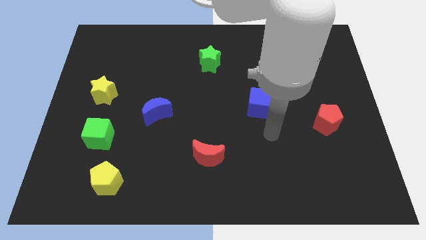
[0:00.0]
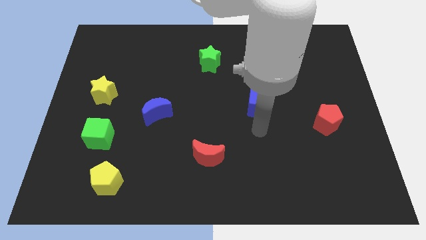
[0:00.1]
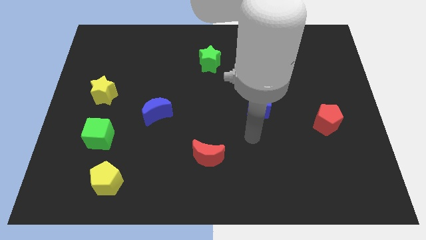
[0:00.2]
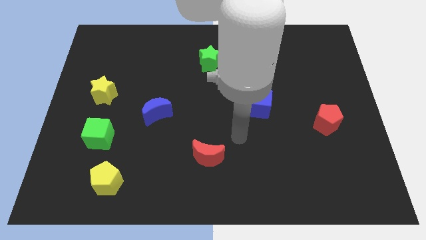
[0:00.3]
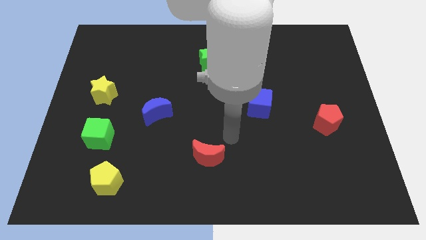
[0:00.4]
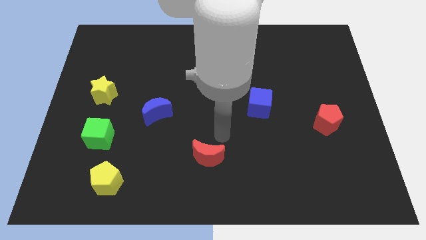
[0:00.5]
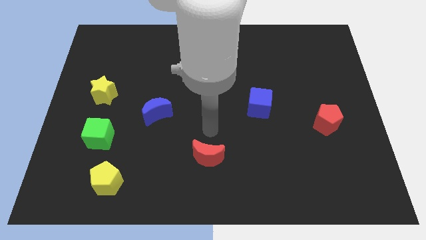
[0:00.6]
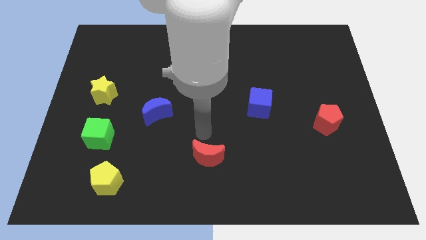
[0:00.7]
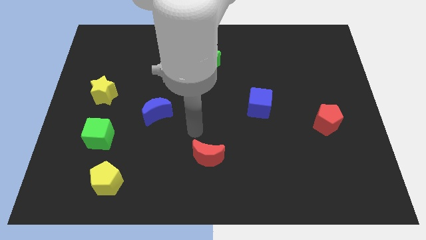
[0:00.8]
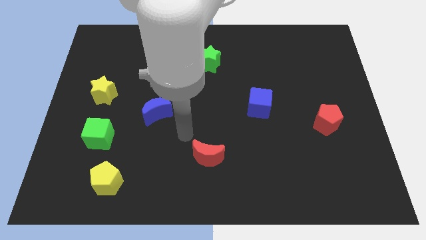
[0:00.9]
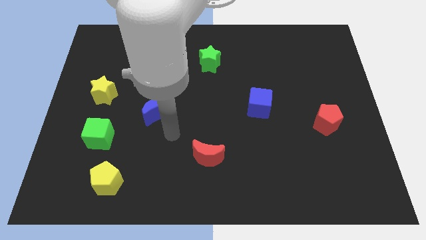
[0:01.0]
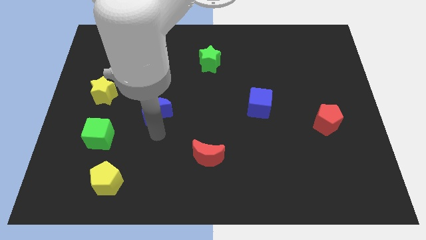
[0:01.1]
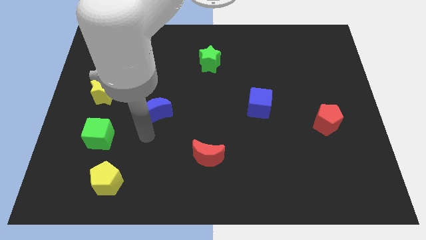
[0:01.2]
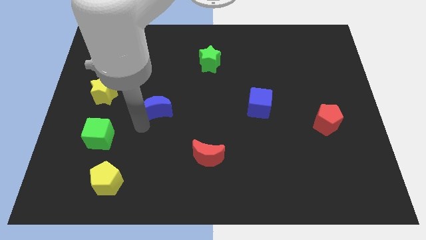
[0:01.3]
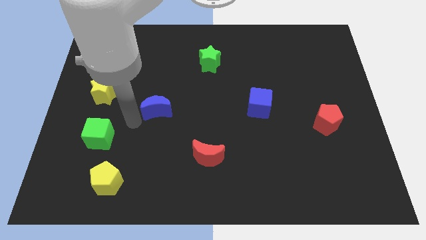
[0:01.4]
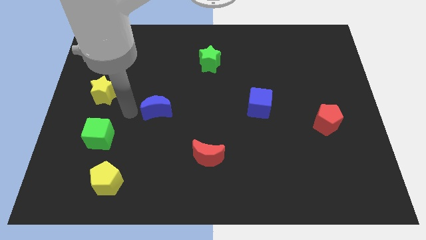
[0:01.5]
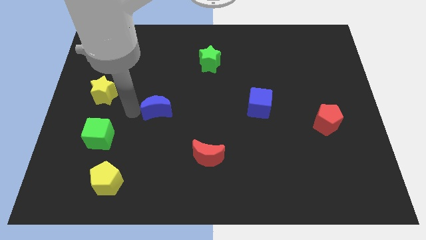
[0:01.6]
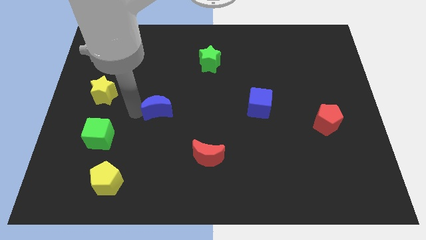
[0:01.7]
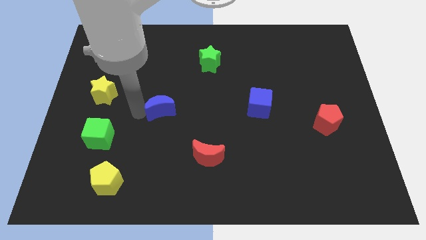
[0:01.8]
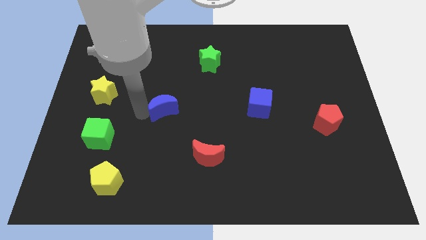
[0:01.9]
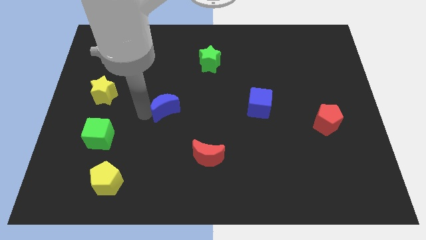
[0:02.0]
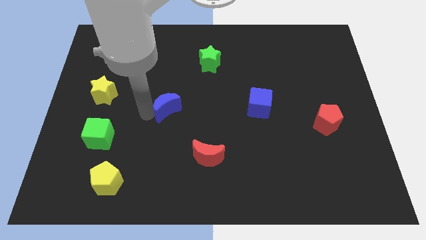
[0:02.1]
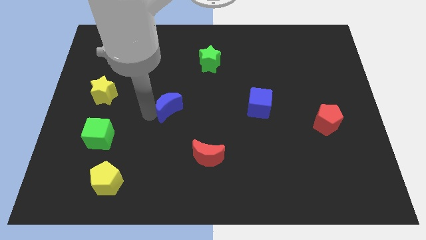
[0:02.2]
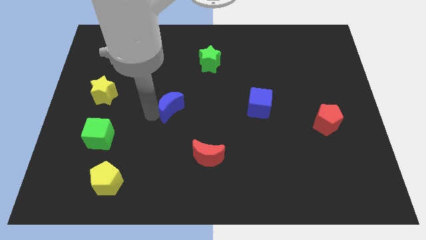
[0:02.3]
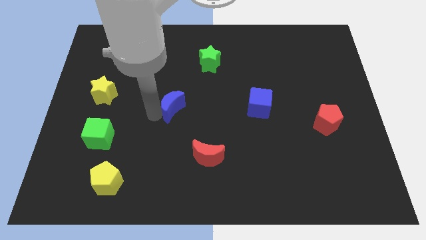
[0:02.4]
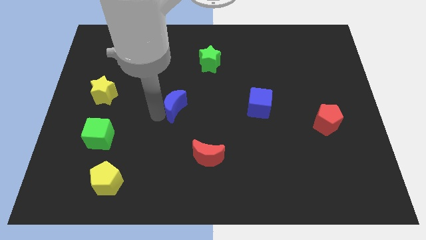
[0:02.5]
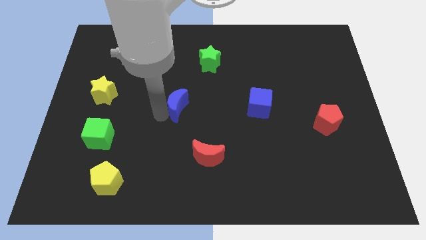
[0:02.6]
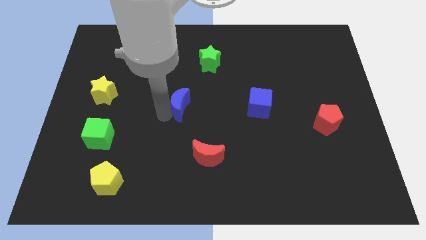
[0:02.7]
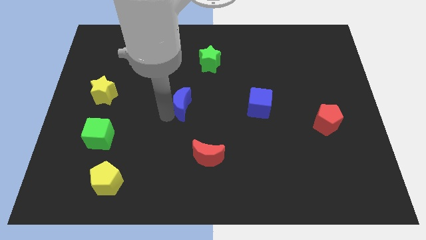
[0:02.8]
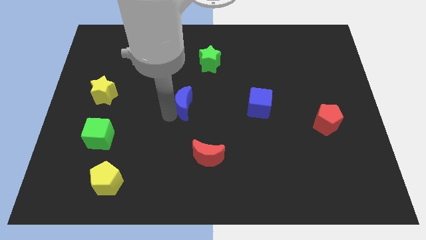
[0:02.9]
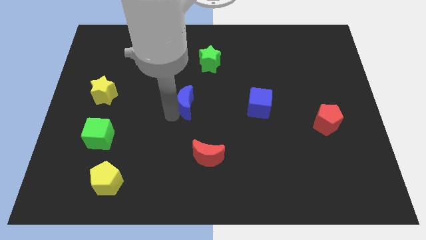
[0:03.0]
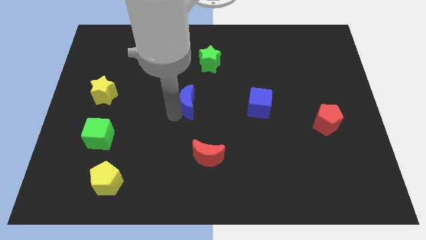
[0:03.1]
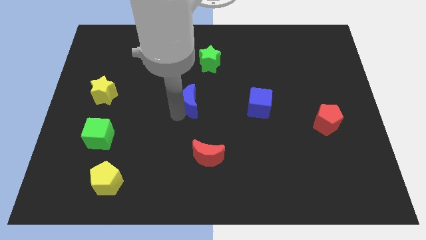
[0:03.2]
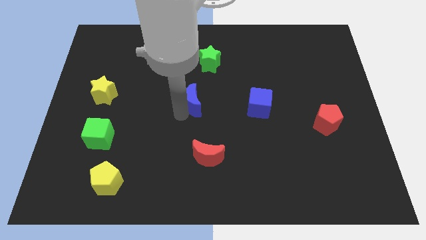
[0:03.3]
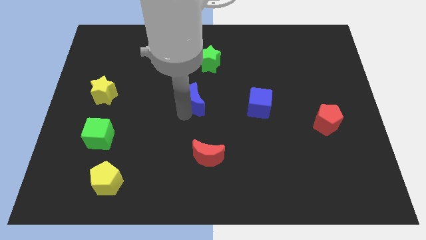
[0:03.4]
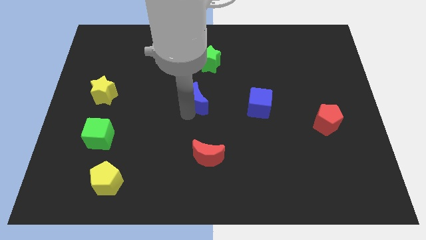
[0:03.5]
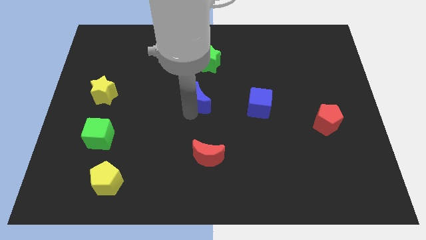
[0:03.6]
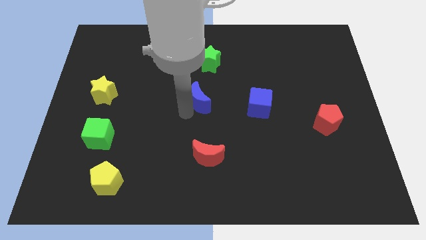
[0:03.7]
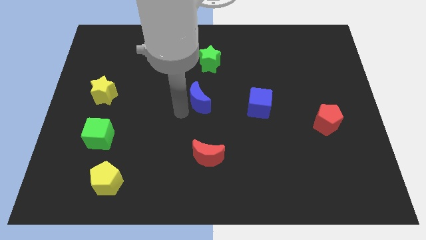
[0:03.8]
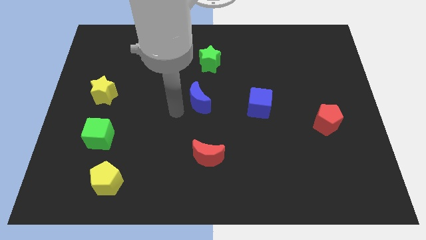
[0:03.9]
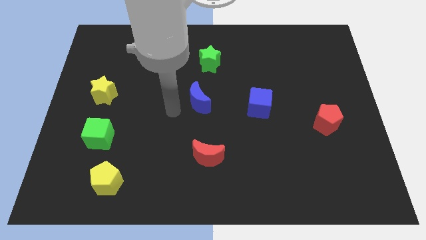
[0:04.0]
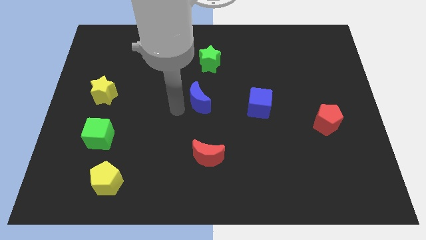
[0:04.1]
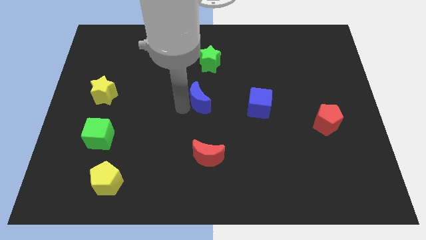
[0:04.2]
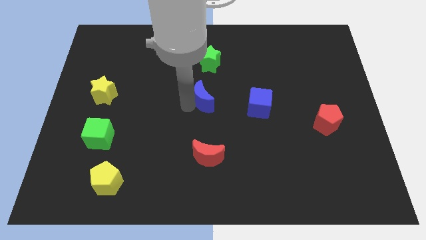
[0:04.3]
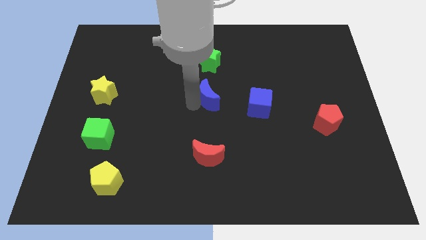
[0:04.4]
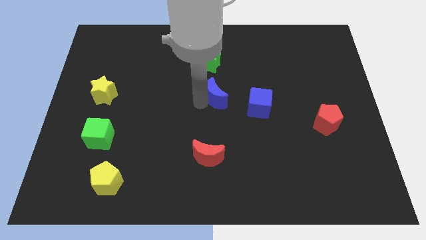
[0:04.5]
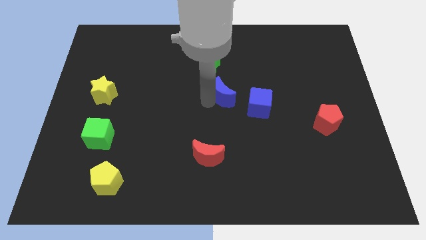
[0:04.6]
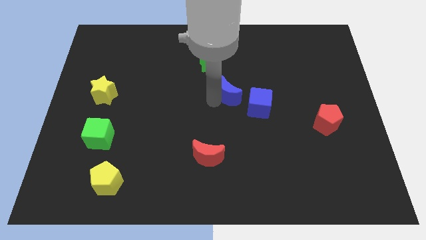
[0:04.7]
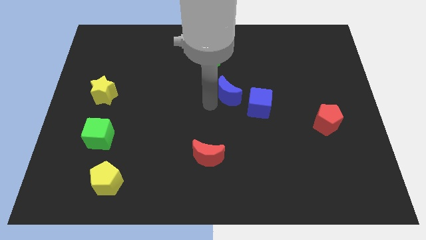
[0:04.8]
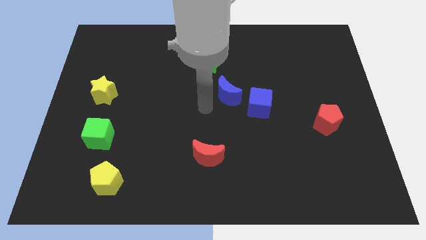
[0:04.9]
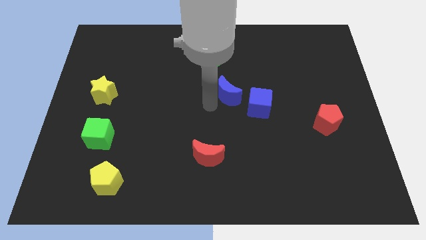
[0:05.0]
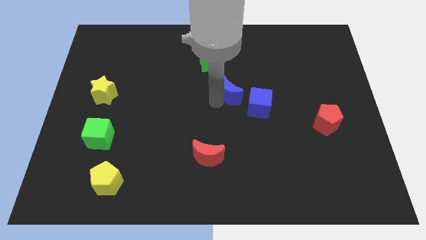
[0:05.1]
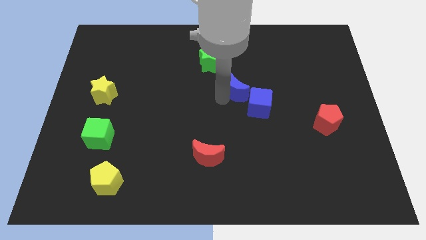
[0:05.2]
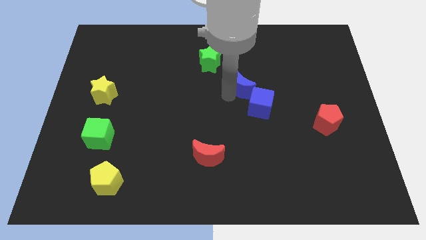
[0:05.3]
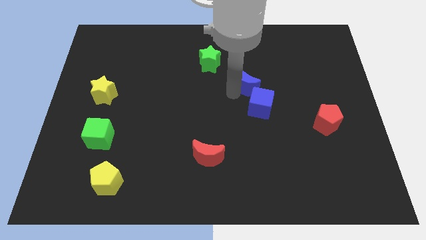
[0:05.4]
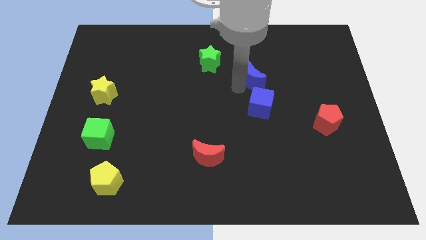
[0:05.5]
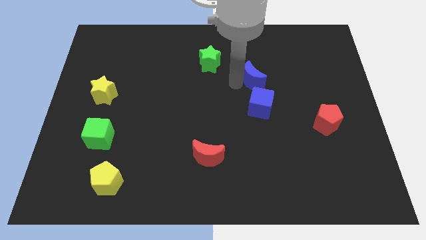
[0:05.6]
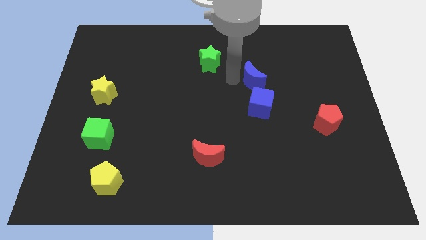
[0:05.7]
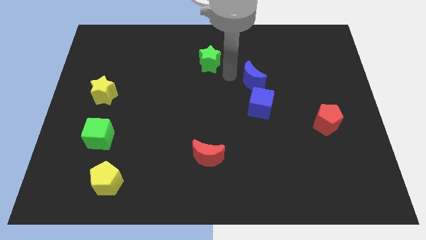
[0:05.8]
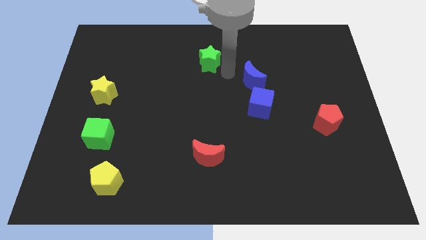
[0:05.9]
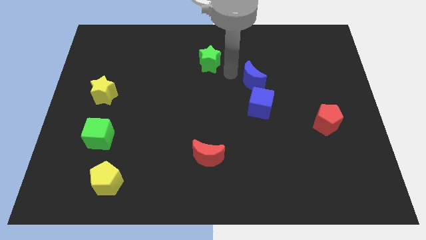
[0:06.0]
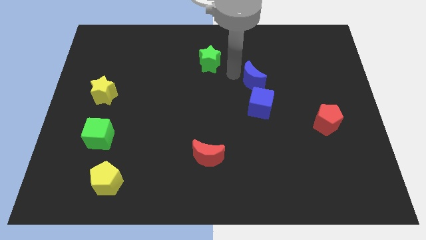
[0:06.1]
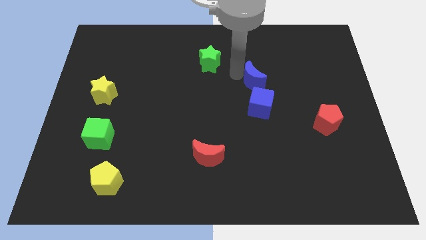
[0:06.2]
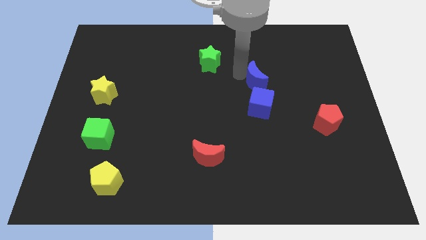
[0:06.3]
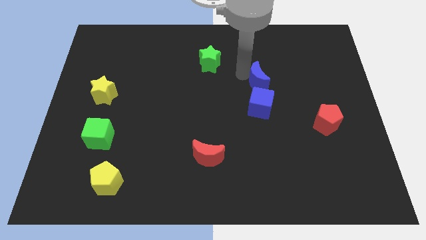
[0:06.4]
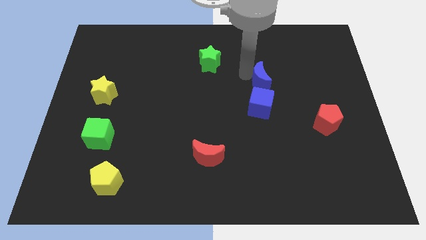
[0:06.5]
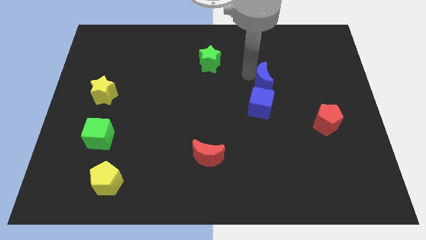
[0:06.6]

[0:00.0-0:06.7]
move the blue moon diagonally up and to the right of the blue cube
